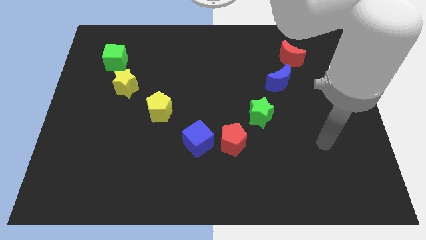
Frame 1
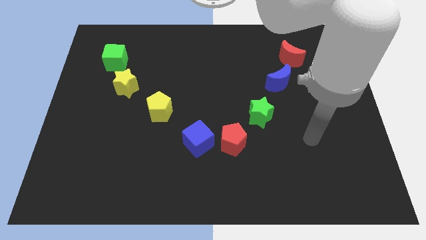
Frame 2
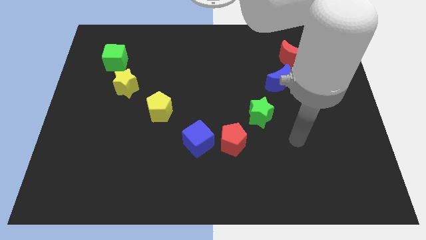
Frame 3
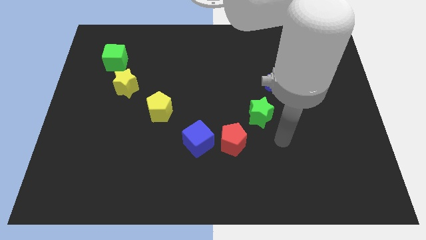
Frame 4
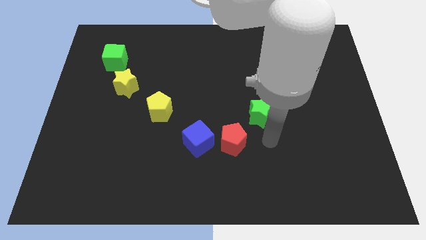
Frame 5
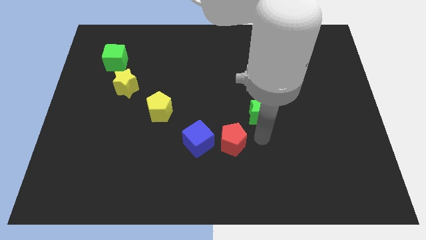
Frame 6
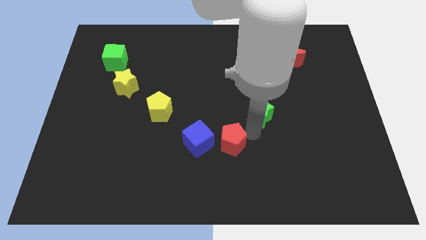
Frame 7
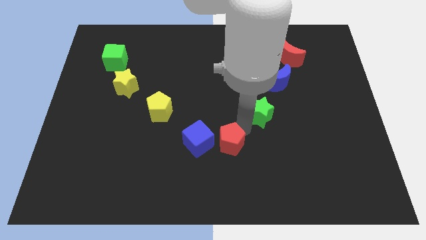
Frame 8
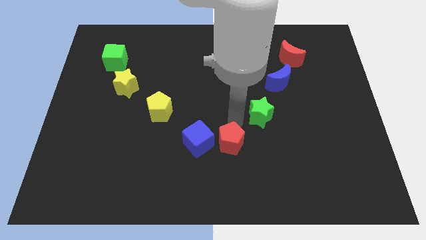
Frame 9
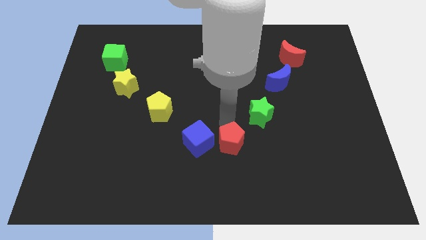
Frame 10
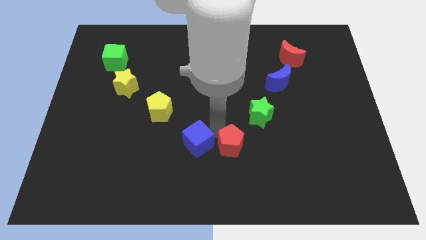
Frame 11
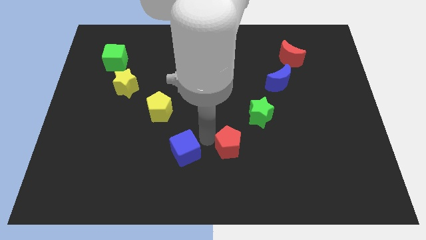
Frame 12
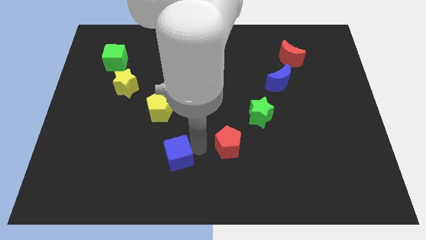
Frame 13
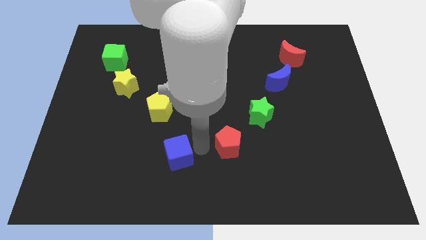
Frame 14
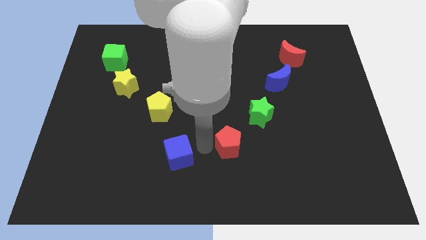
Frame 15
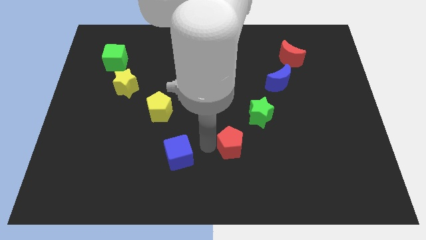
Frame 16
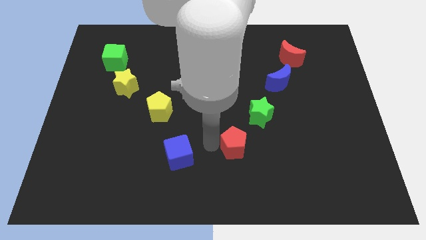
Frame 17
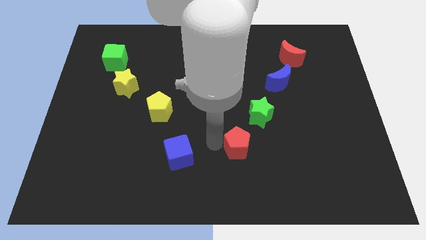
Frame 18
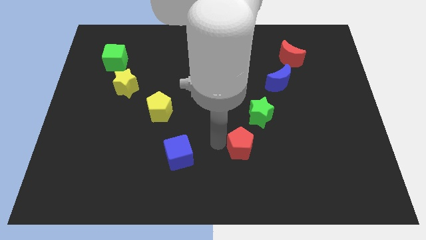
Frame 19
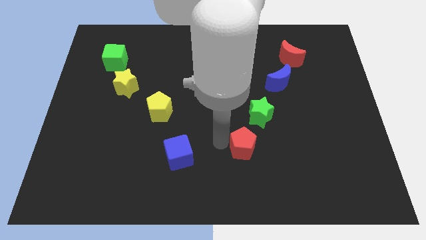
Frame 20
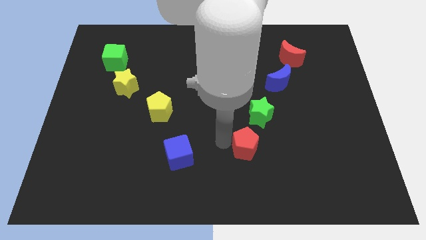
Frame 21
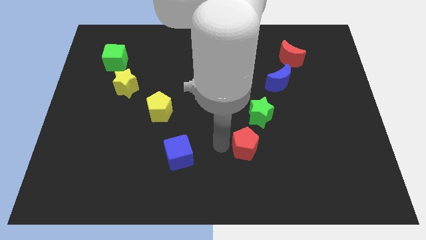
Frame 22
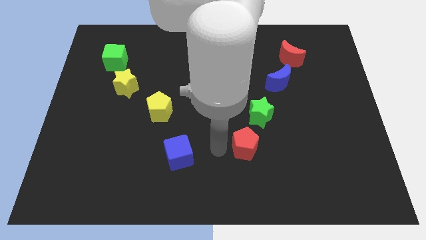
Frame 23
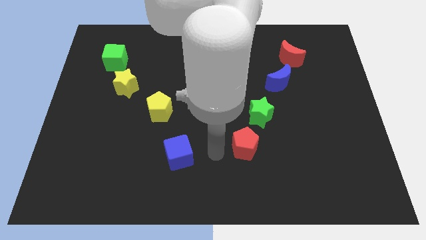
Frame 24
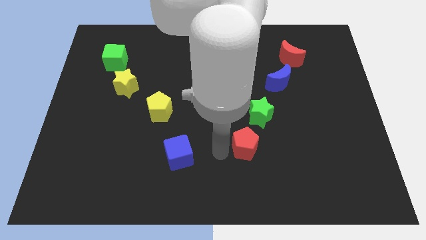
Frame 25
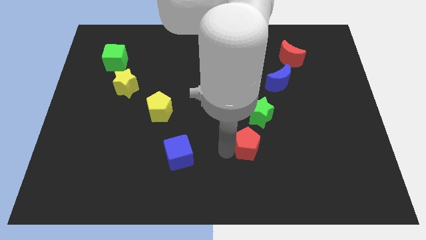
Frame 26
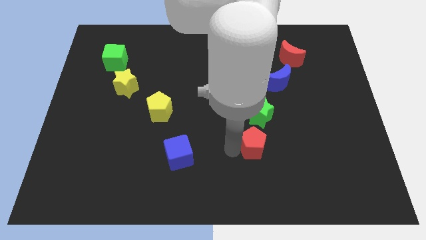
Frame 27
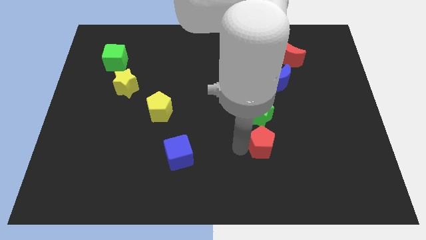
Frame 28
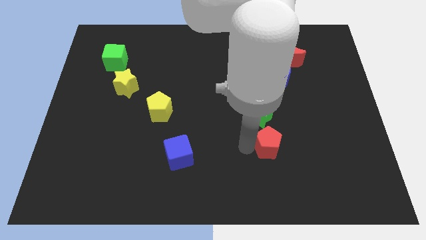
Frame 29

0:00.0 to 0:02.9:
push the red pentagon right a little bit

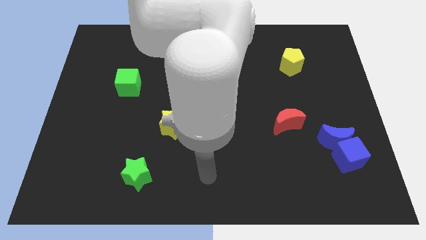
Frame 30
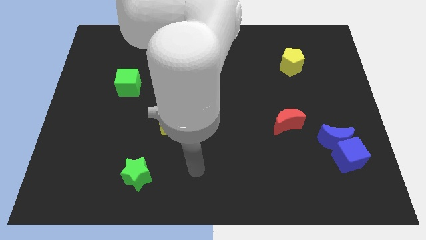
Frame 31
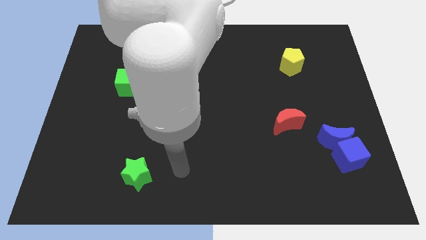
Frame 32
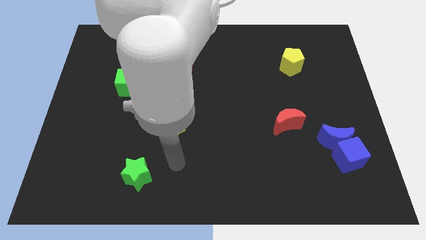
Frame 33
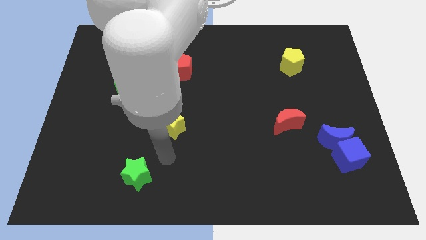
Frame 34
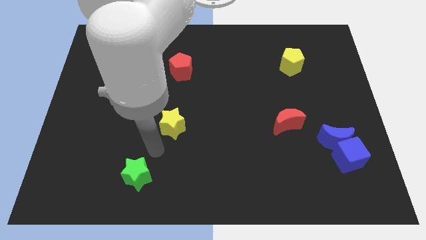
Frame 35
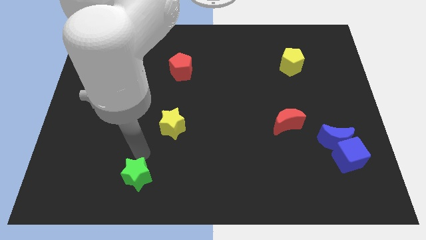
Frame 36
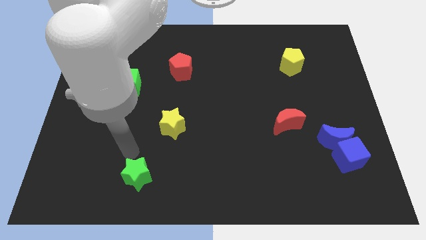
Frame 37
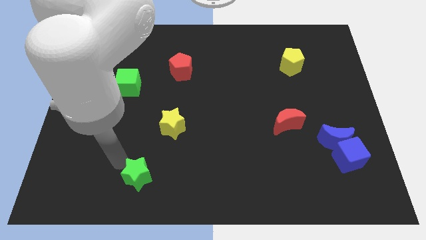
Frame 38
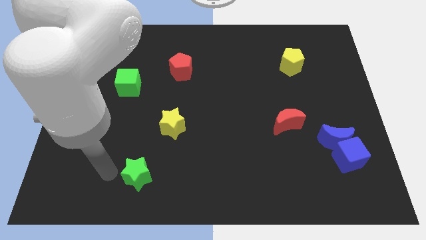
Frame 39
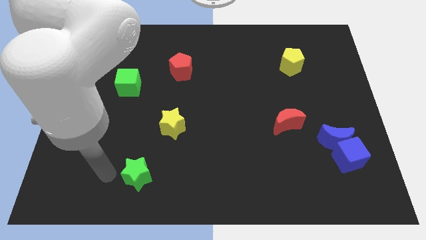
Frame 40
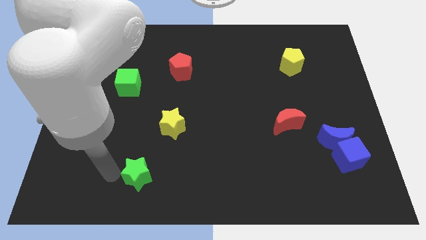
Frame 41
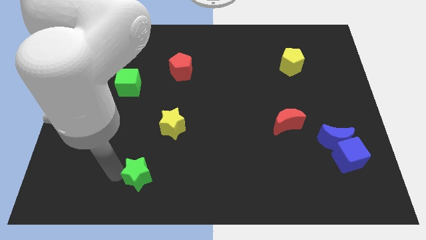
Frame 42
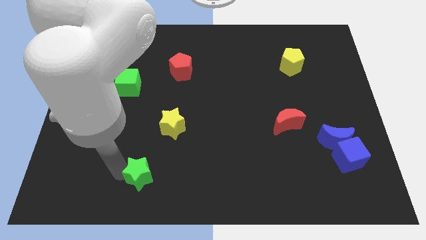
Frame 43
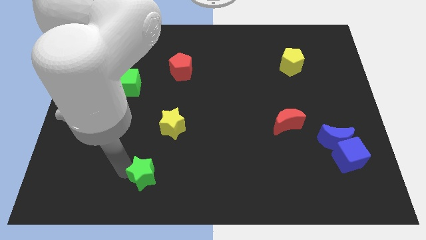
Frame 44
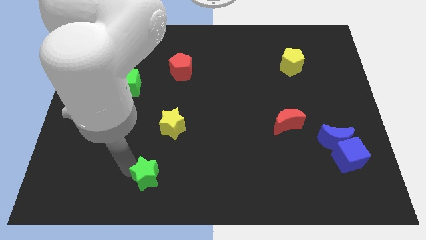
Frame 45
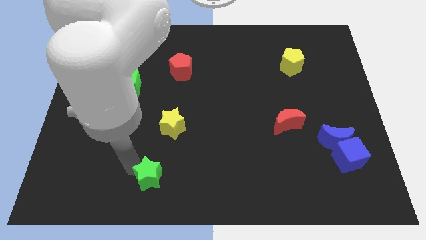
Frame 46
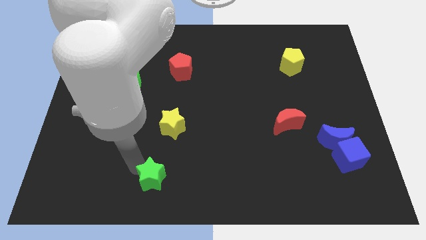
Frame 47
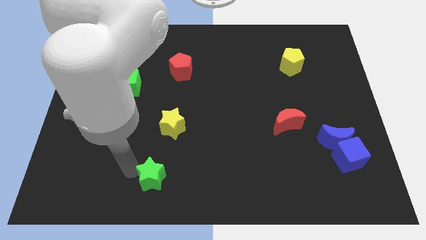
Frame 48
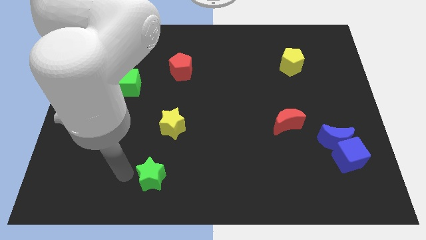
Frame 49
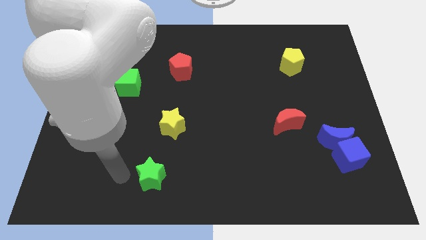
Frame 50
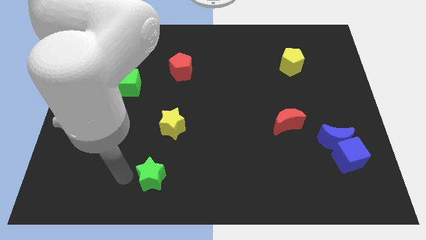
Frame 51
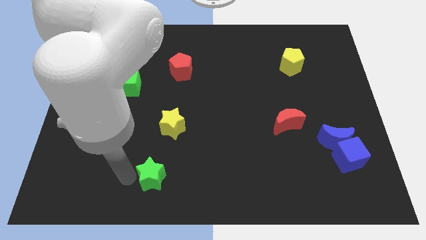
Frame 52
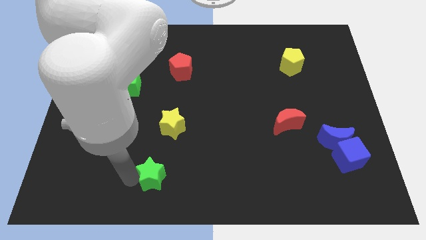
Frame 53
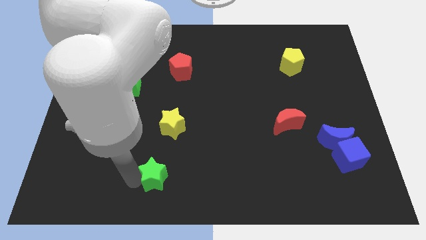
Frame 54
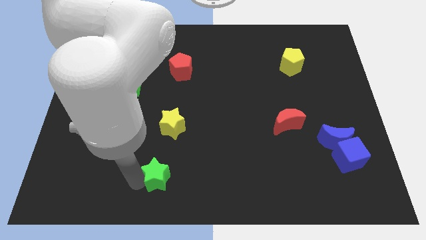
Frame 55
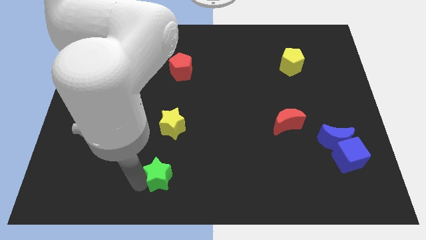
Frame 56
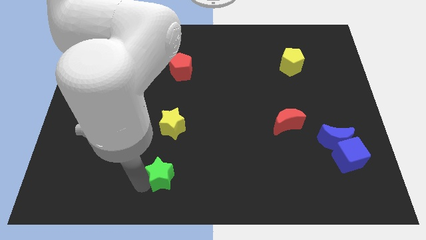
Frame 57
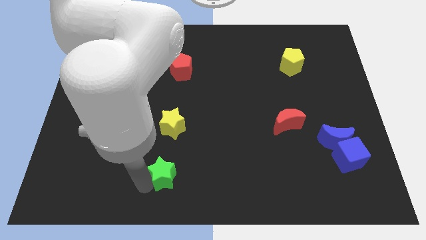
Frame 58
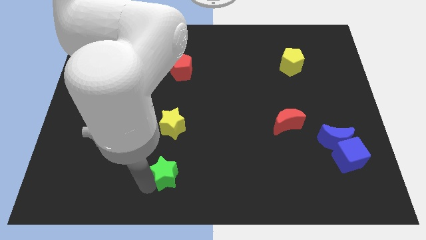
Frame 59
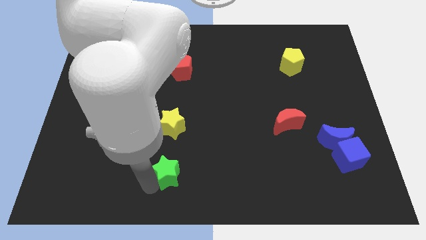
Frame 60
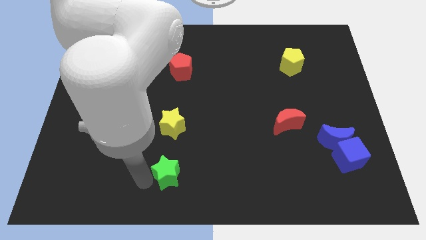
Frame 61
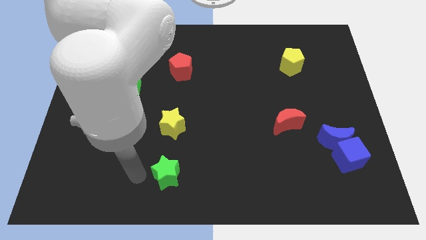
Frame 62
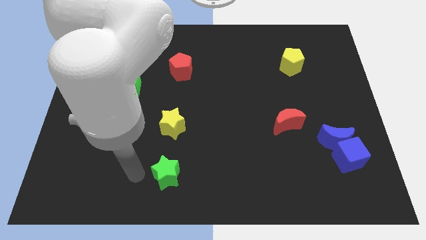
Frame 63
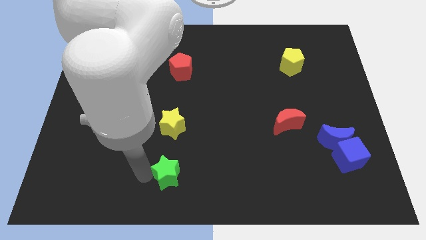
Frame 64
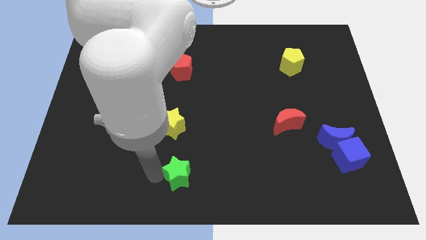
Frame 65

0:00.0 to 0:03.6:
slightly push the green star right

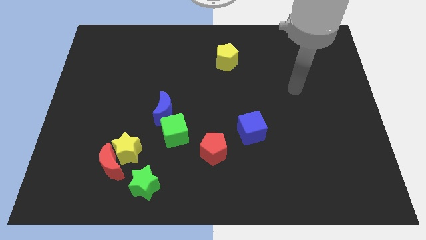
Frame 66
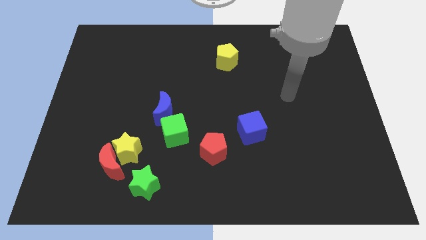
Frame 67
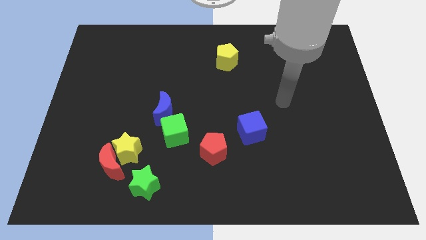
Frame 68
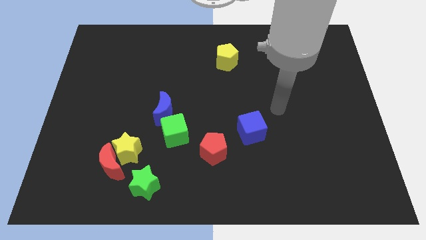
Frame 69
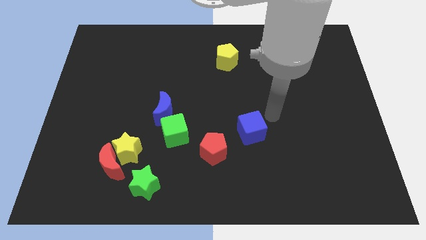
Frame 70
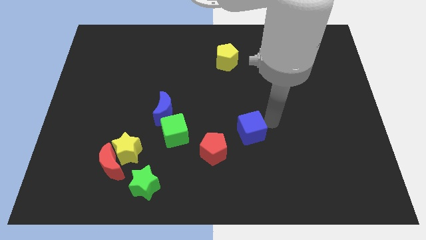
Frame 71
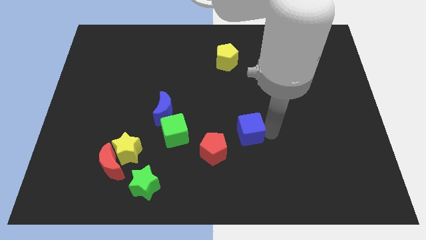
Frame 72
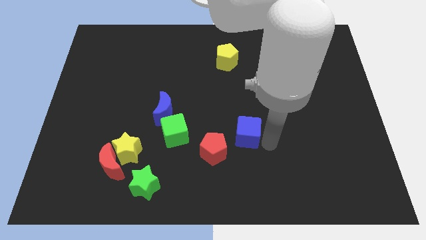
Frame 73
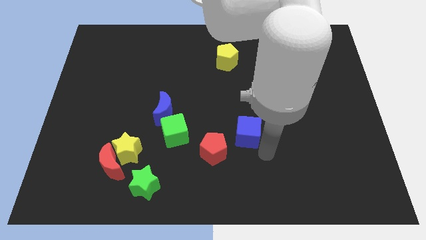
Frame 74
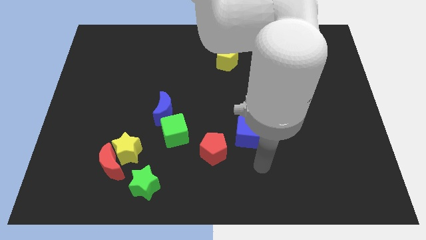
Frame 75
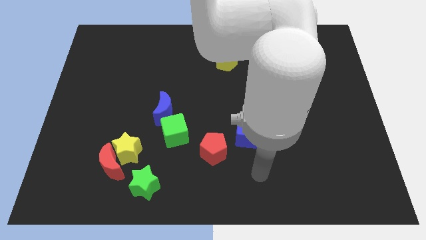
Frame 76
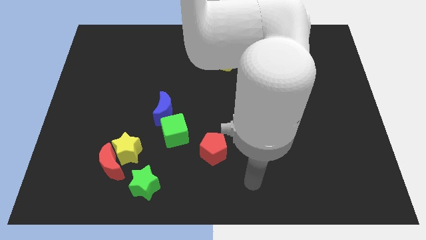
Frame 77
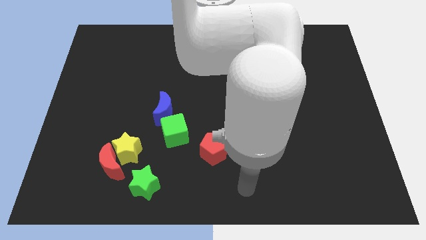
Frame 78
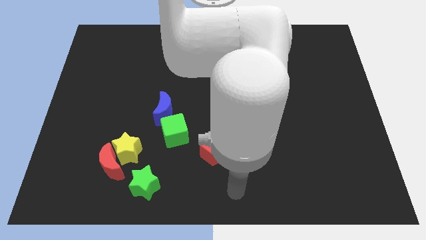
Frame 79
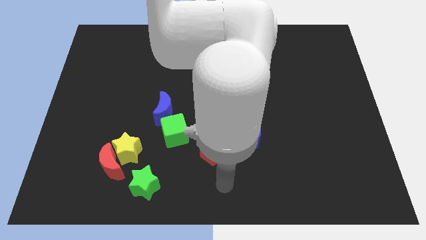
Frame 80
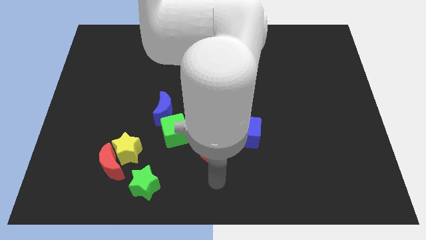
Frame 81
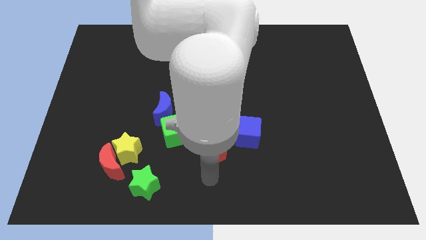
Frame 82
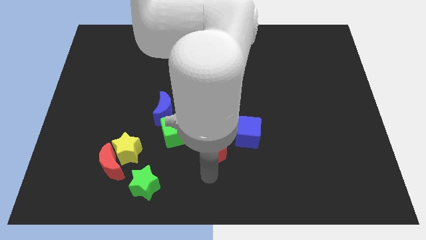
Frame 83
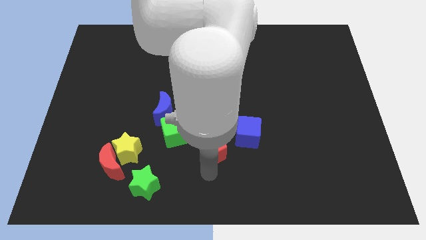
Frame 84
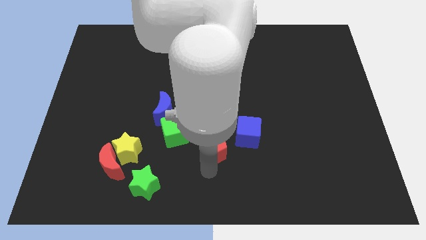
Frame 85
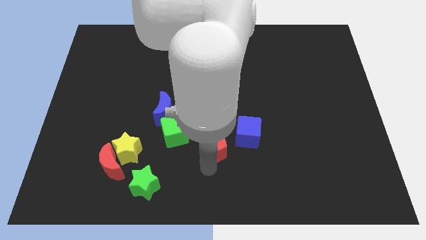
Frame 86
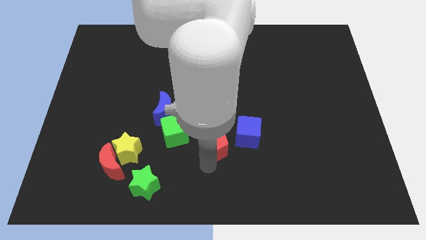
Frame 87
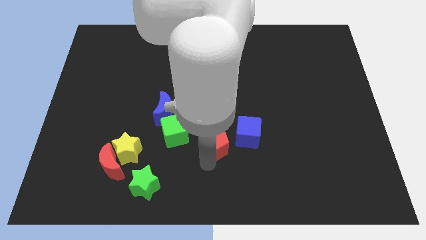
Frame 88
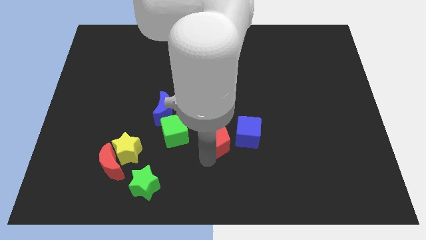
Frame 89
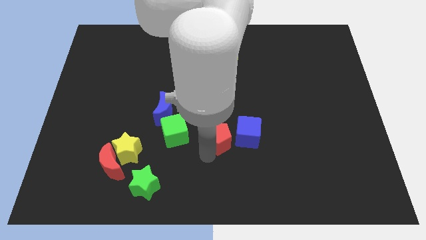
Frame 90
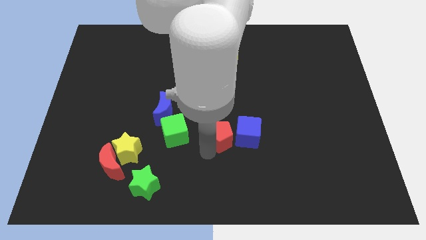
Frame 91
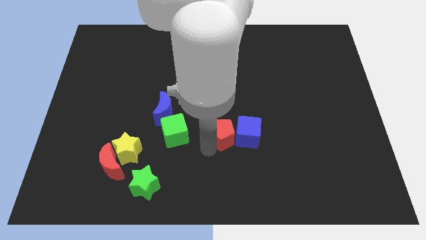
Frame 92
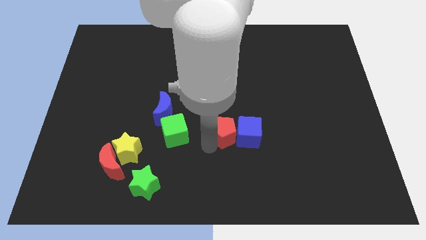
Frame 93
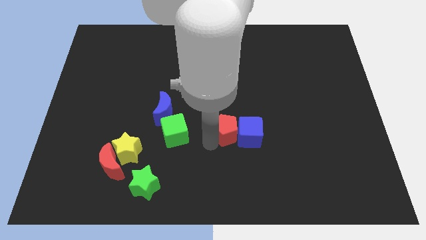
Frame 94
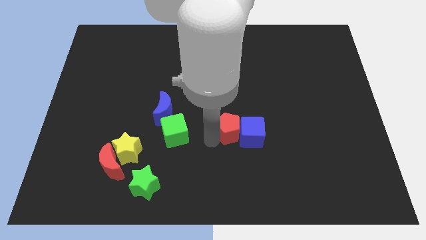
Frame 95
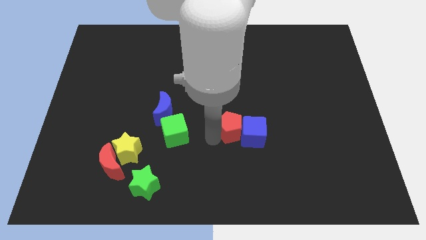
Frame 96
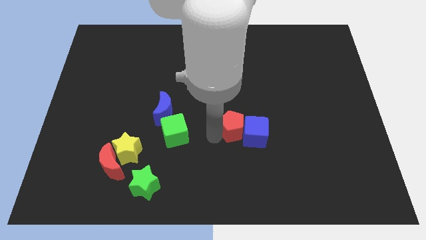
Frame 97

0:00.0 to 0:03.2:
push the red pentagon up and then right slightly
